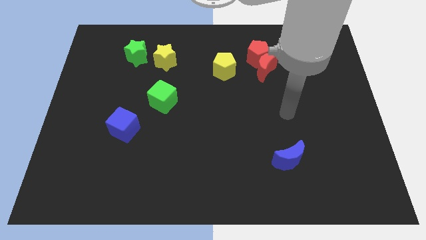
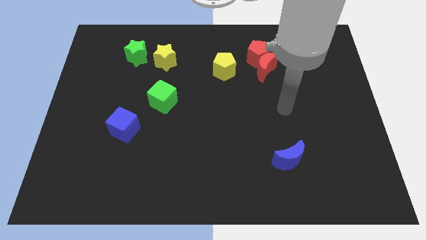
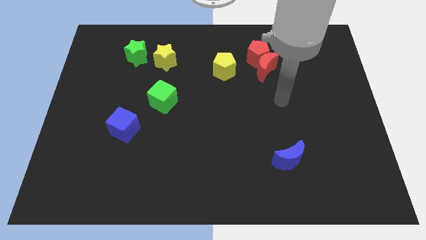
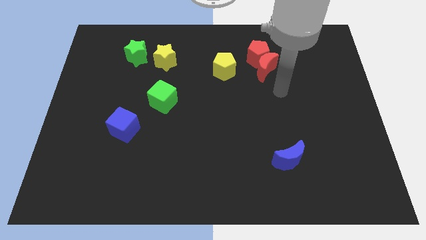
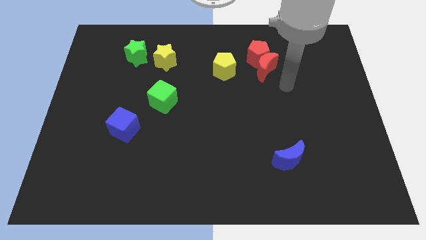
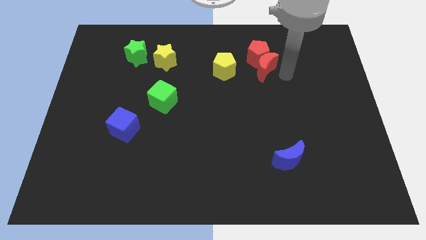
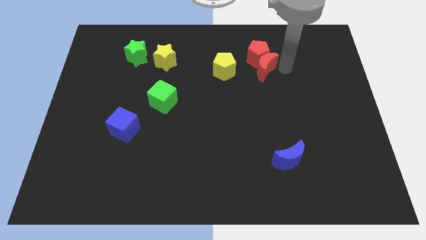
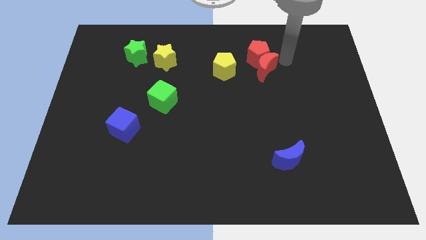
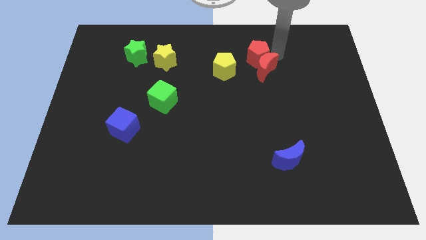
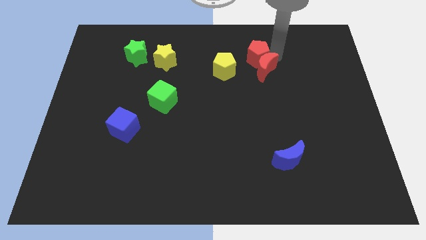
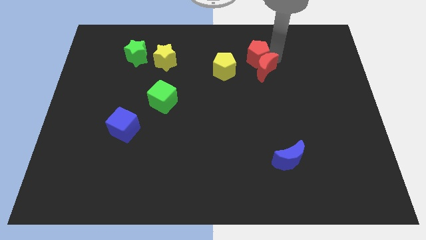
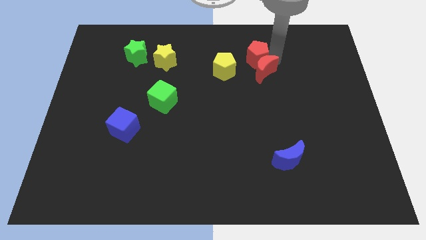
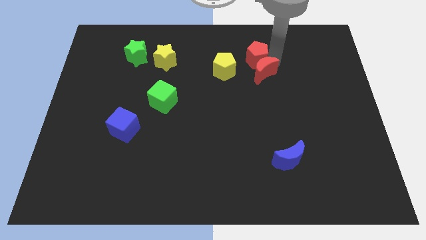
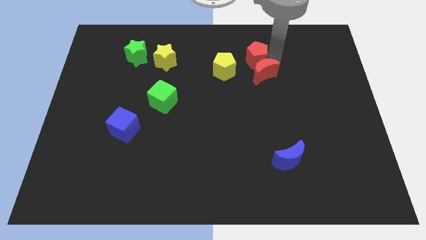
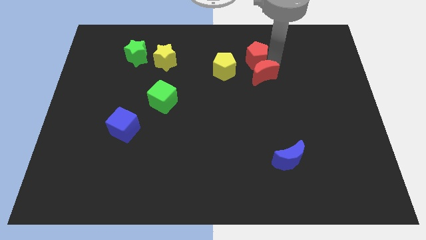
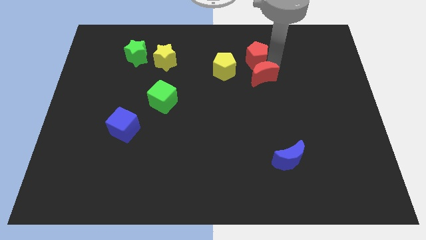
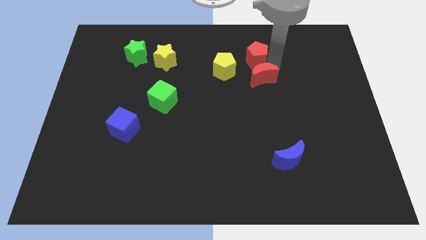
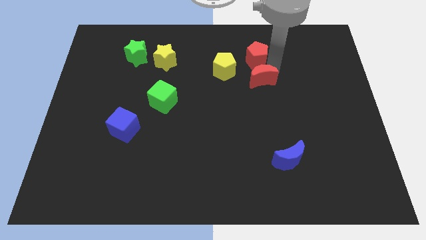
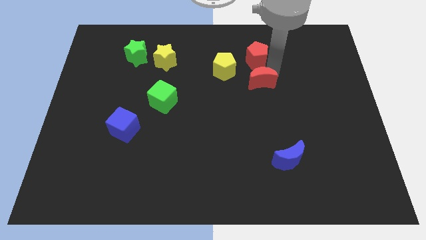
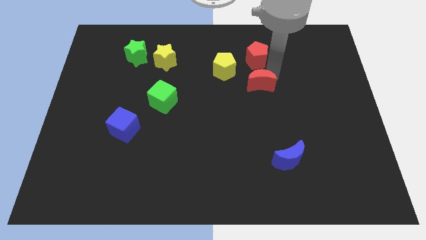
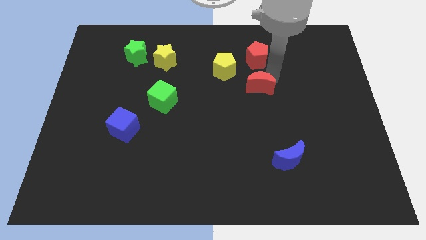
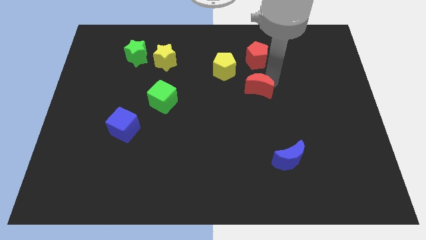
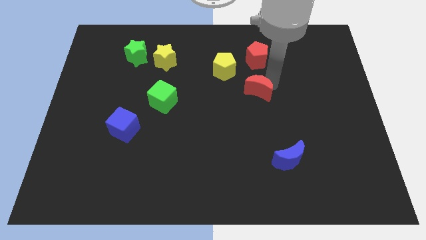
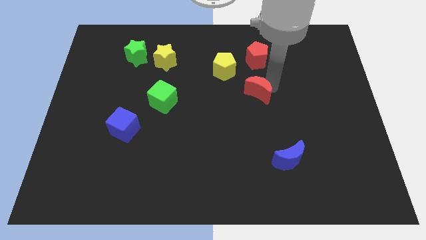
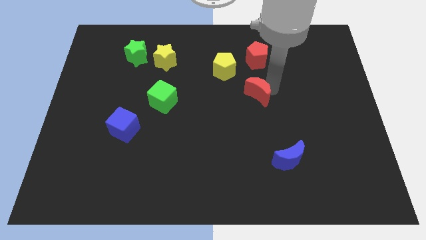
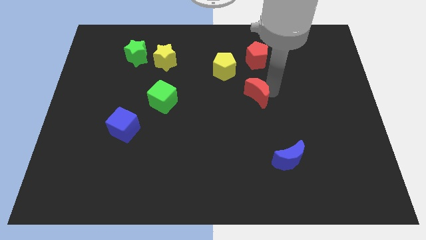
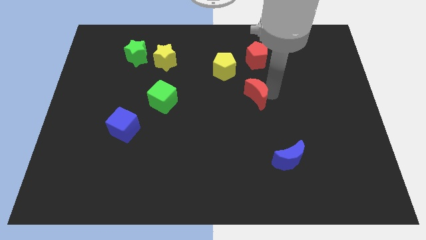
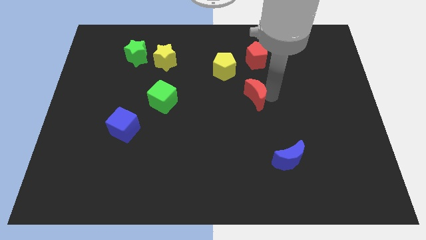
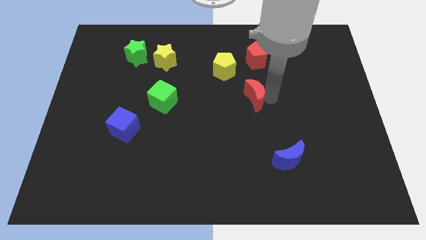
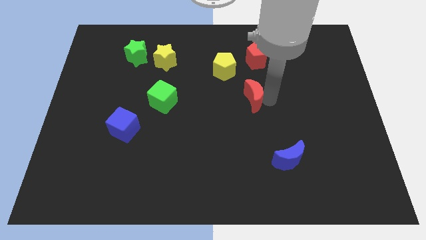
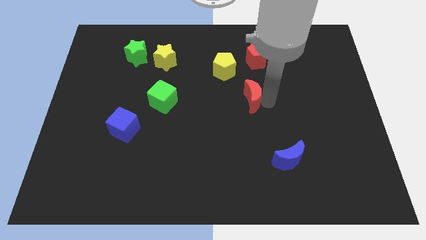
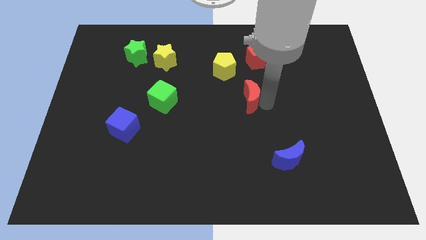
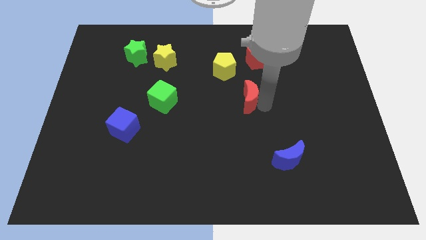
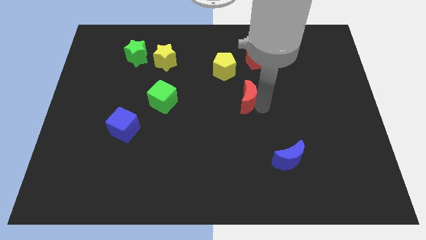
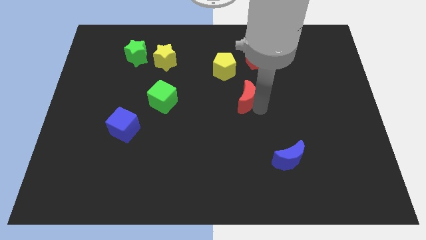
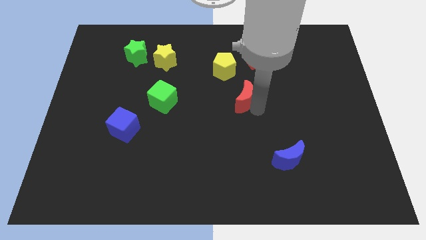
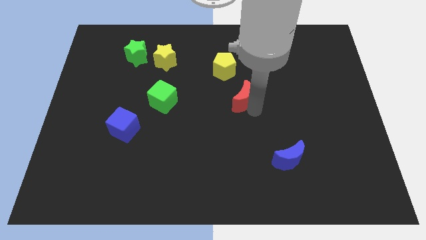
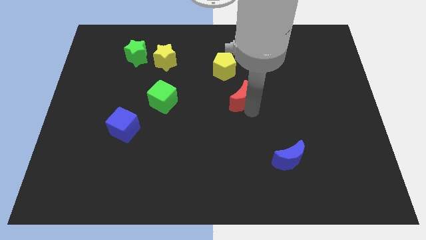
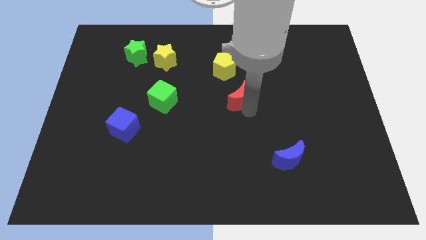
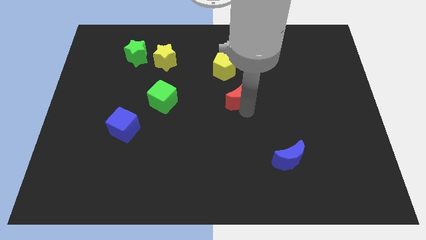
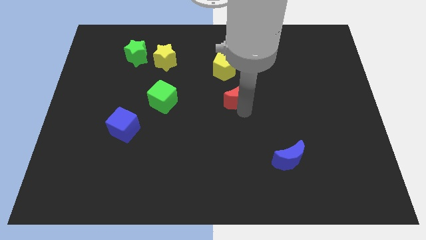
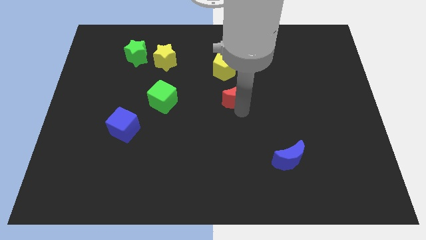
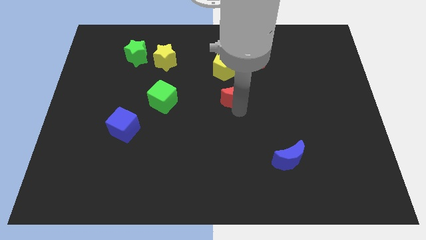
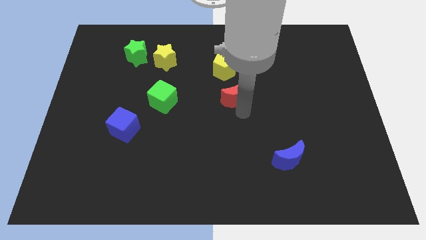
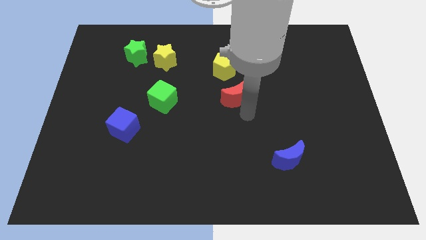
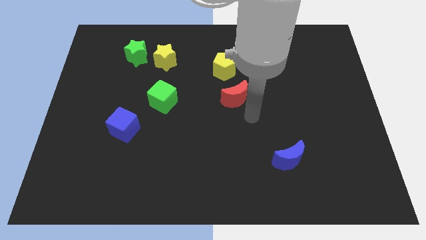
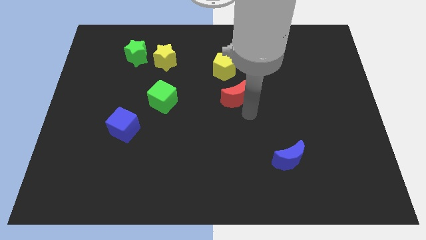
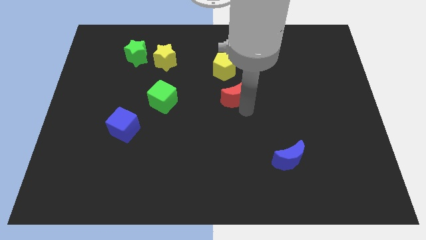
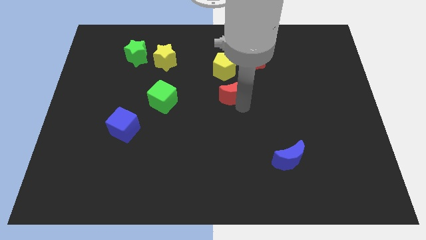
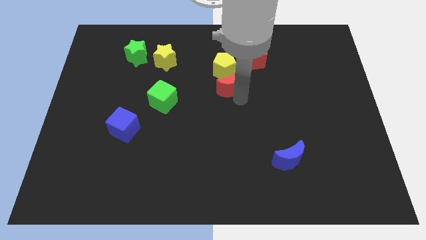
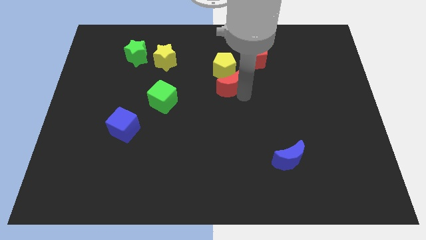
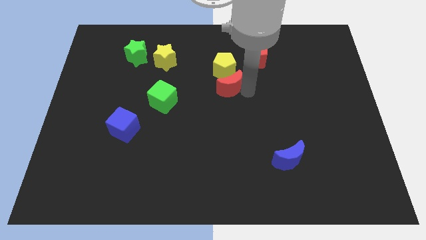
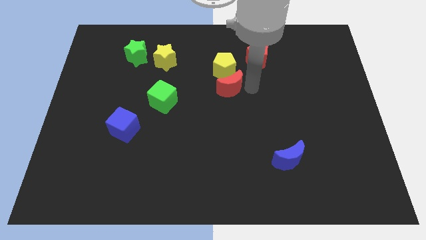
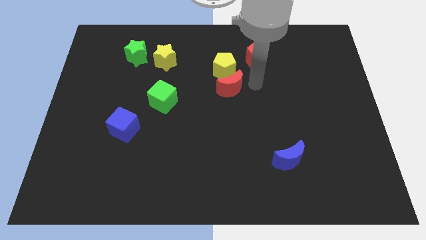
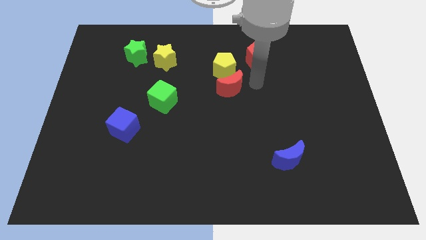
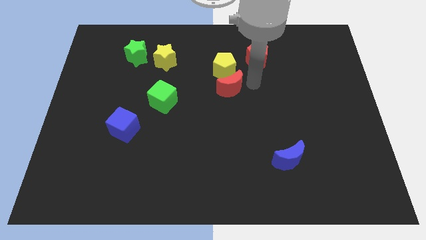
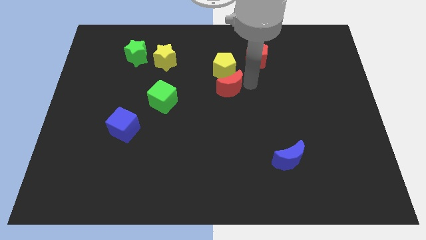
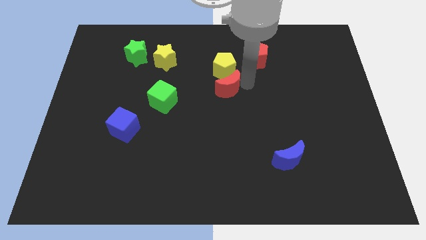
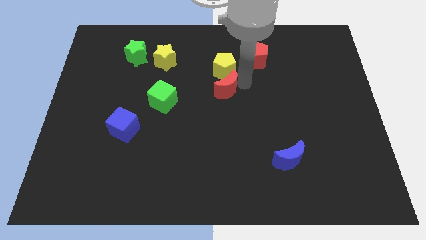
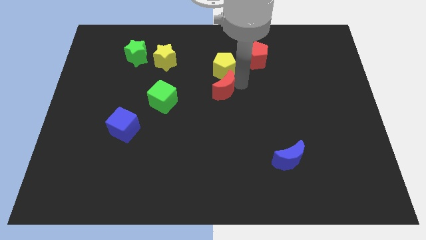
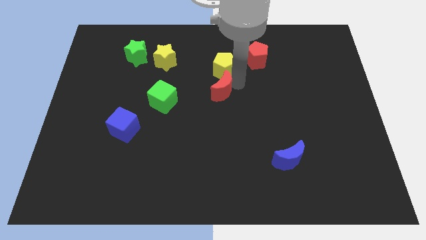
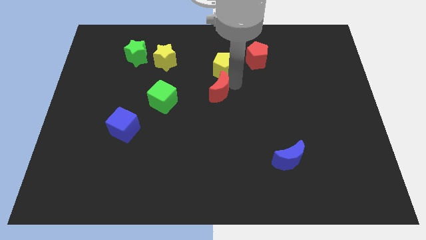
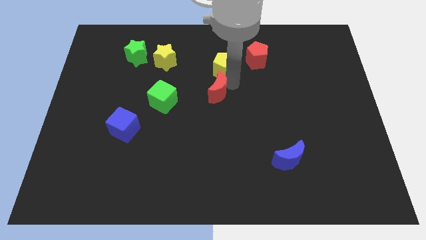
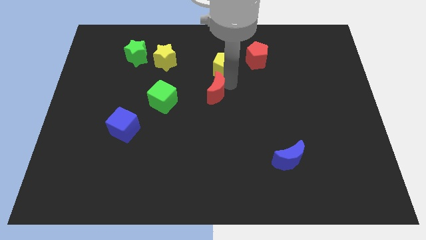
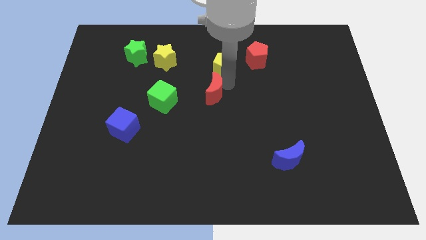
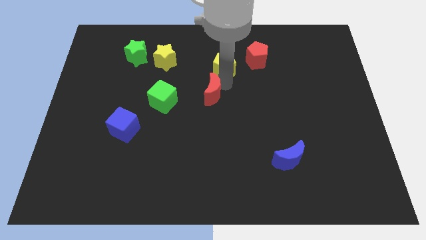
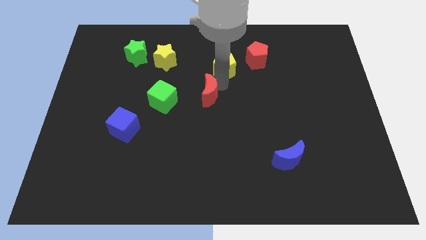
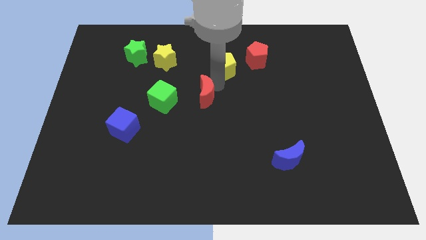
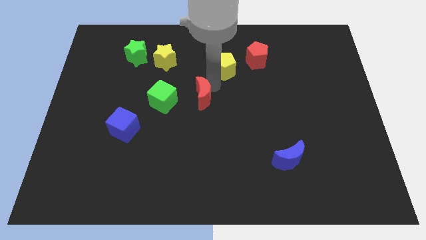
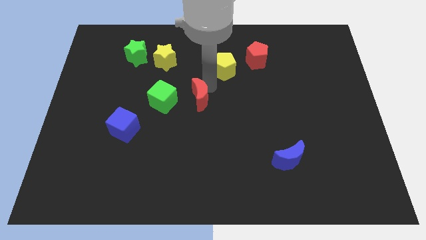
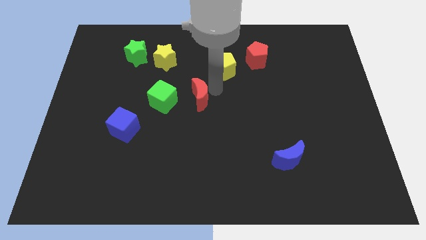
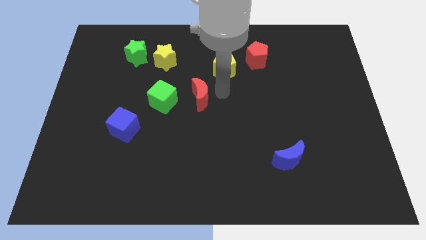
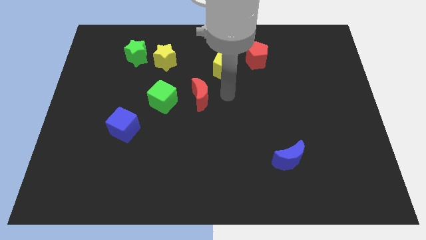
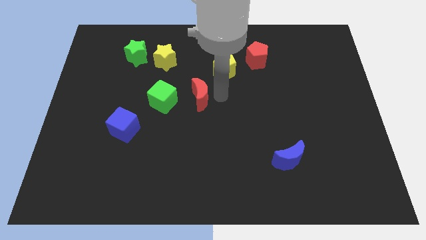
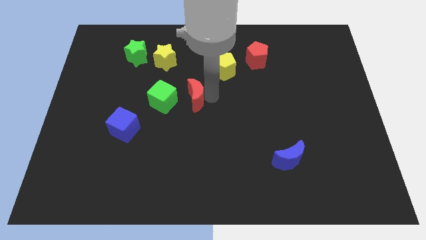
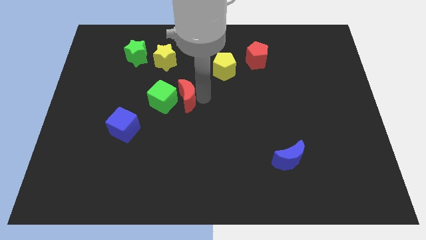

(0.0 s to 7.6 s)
push the red moon to the green cube
